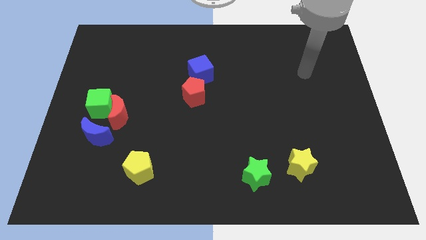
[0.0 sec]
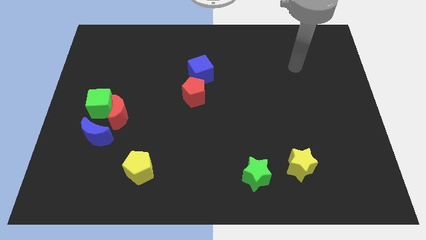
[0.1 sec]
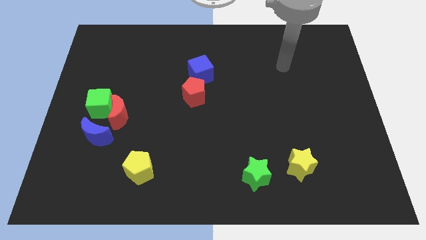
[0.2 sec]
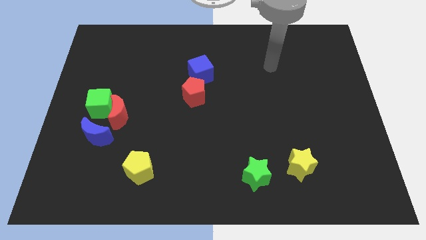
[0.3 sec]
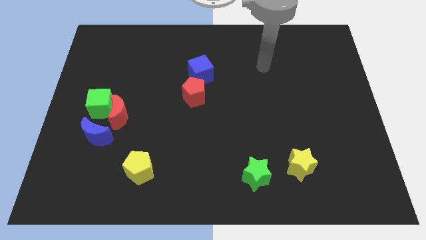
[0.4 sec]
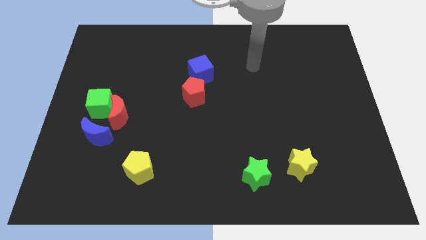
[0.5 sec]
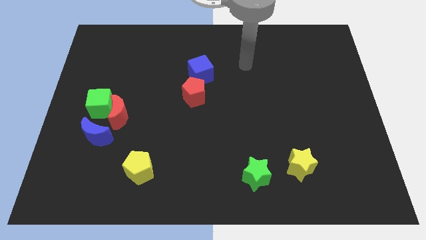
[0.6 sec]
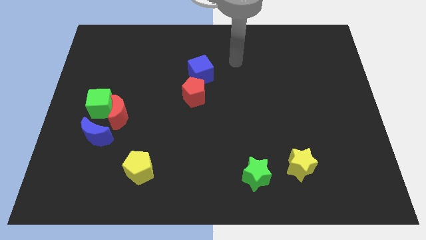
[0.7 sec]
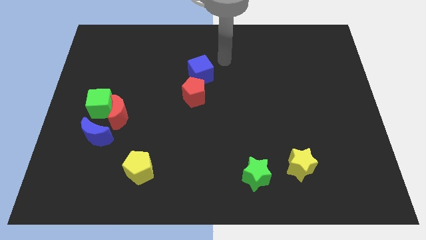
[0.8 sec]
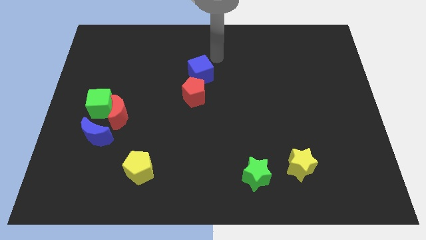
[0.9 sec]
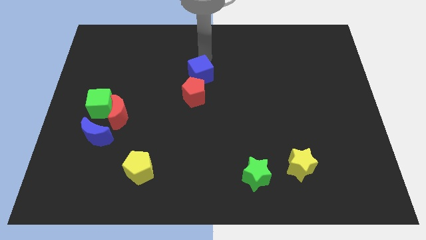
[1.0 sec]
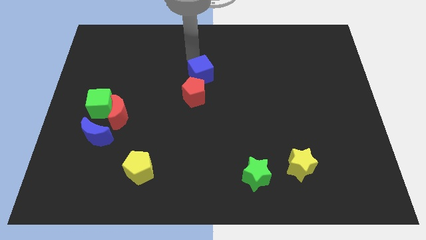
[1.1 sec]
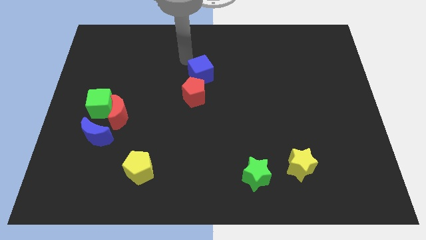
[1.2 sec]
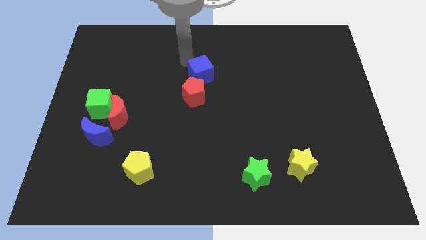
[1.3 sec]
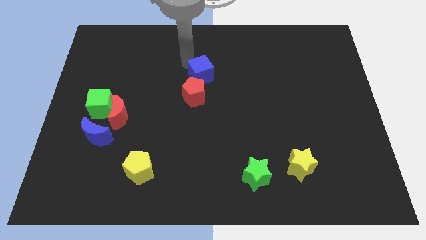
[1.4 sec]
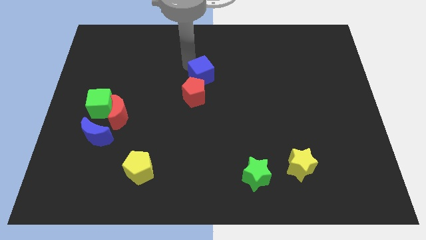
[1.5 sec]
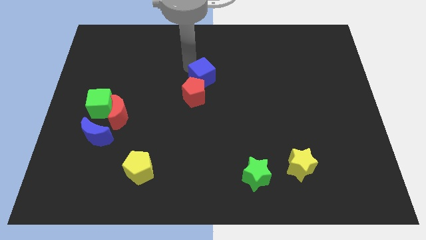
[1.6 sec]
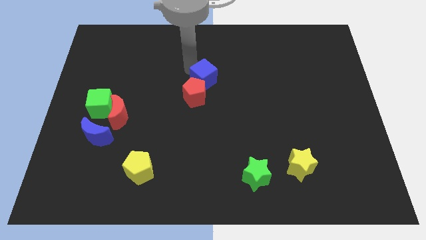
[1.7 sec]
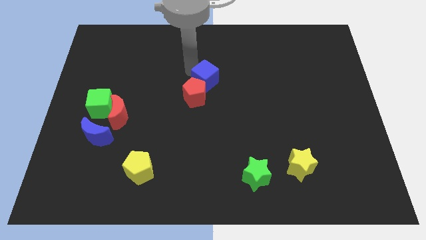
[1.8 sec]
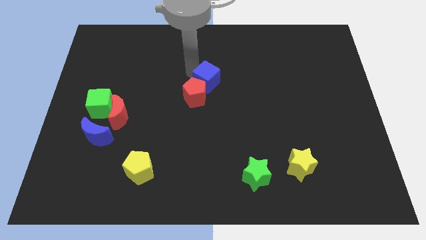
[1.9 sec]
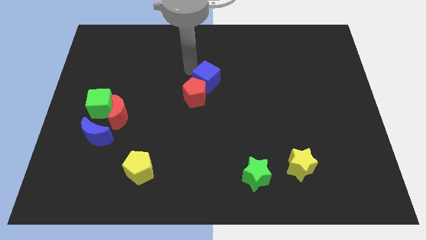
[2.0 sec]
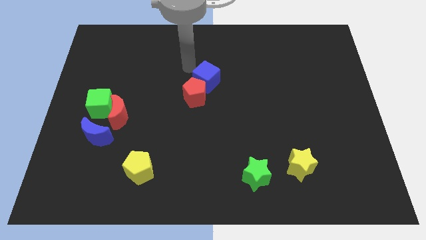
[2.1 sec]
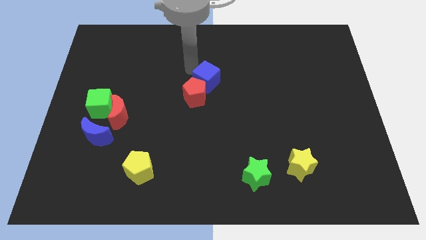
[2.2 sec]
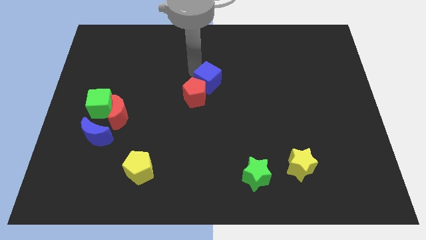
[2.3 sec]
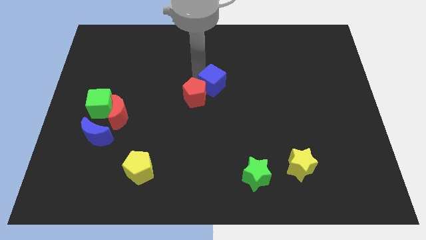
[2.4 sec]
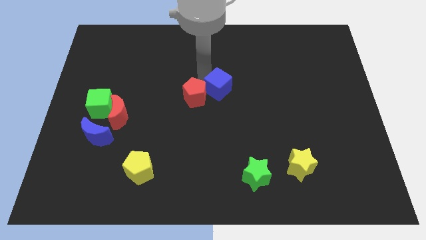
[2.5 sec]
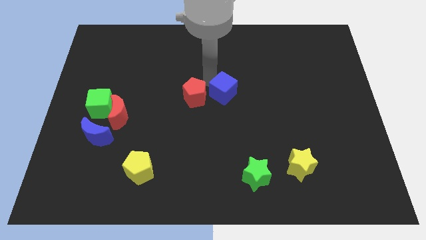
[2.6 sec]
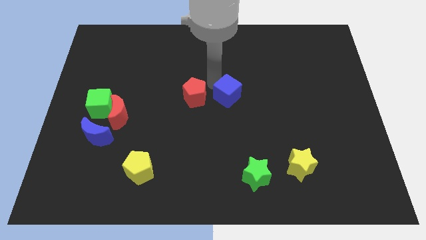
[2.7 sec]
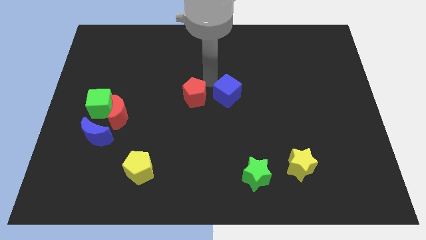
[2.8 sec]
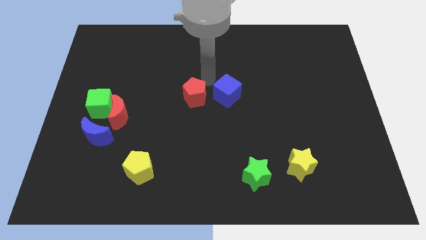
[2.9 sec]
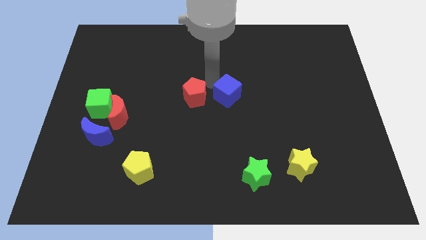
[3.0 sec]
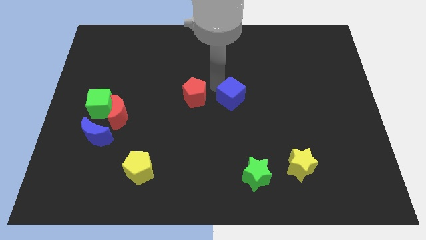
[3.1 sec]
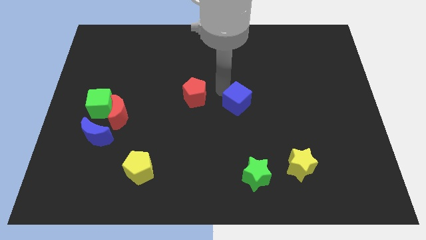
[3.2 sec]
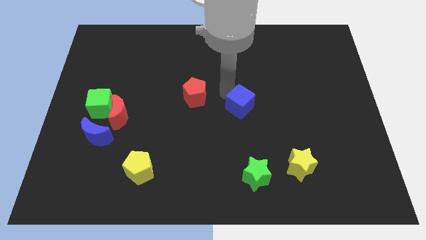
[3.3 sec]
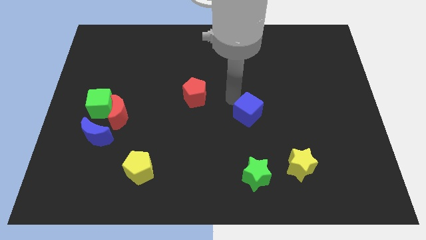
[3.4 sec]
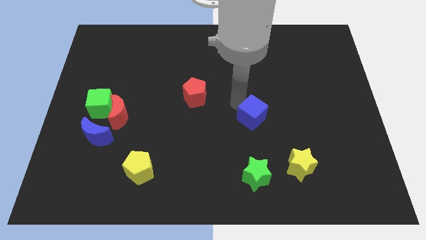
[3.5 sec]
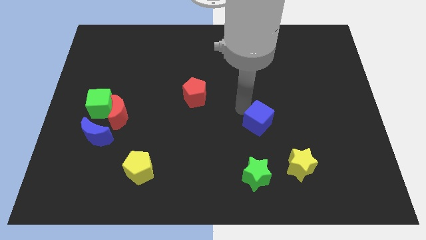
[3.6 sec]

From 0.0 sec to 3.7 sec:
push the blue cube down and to the right diagonally

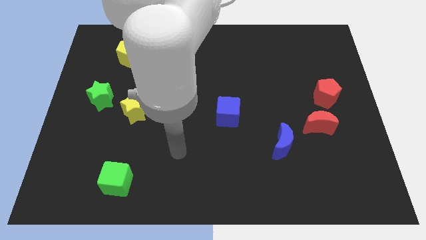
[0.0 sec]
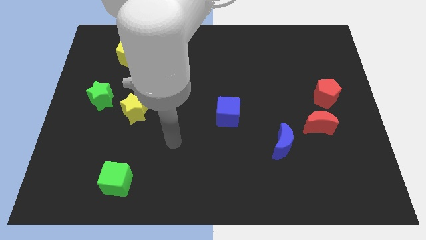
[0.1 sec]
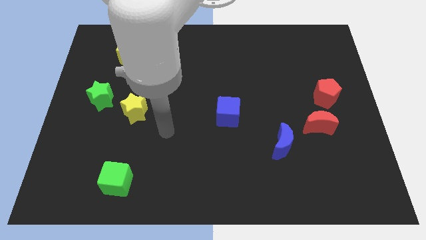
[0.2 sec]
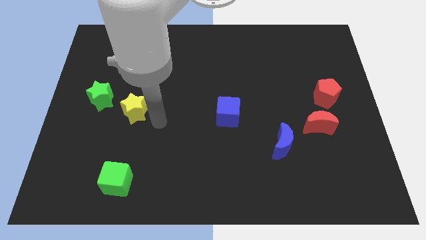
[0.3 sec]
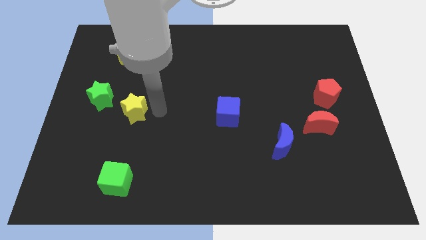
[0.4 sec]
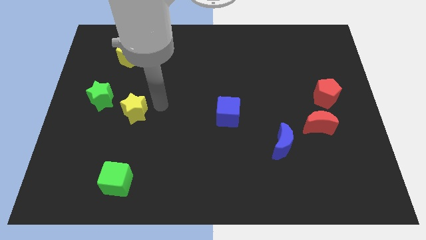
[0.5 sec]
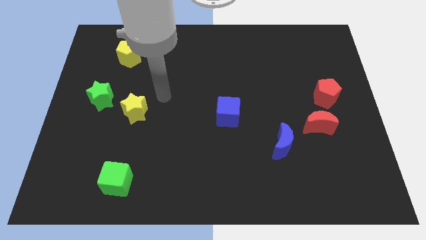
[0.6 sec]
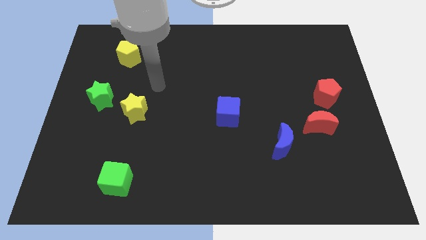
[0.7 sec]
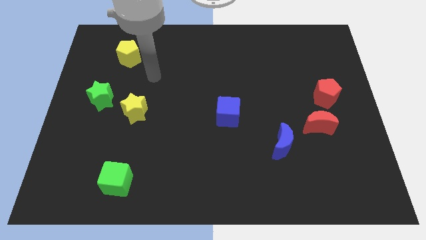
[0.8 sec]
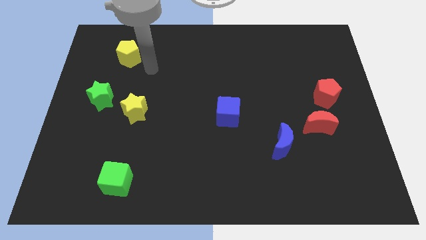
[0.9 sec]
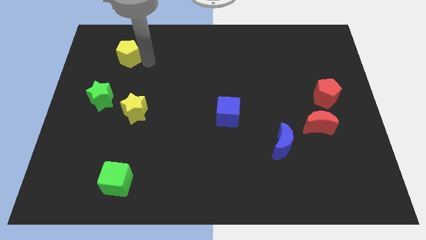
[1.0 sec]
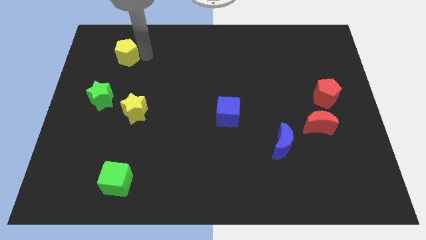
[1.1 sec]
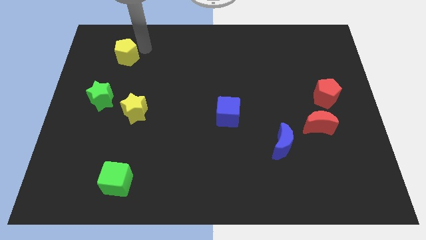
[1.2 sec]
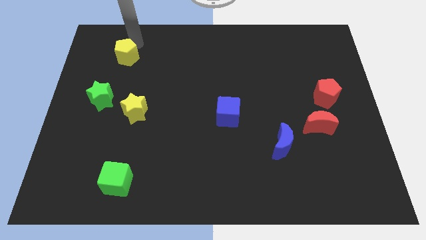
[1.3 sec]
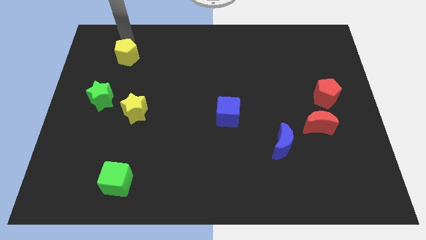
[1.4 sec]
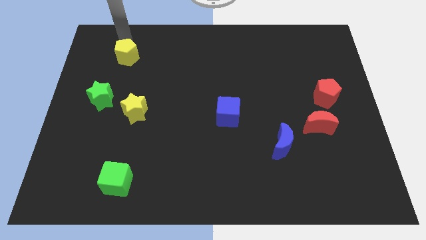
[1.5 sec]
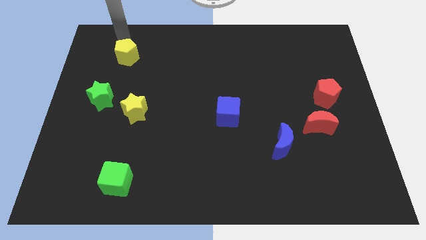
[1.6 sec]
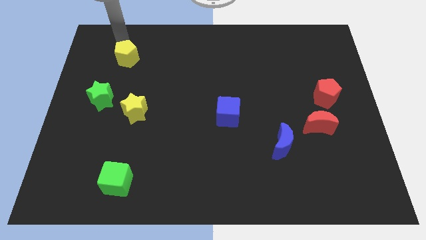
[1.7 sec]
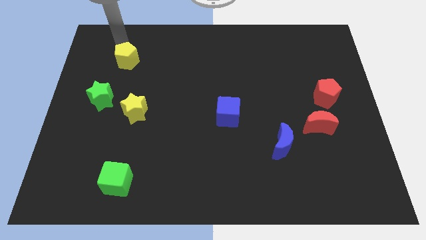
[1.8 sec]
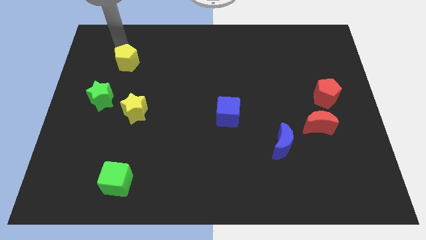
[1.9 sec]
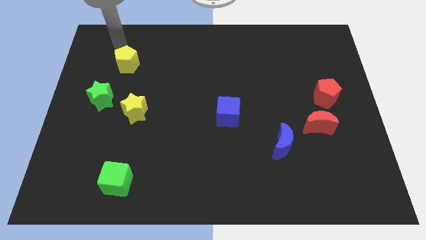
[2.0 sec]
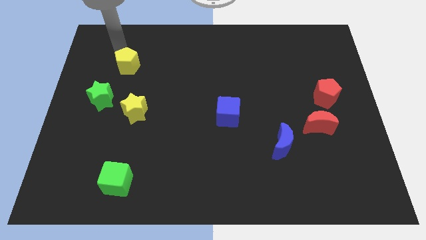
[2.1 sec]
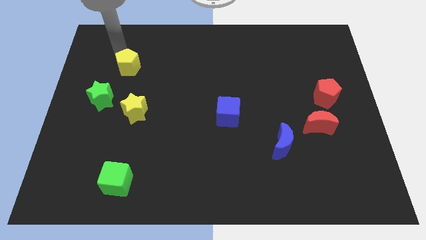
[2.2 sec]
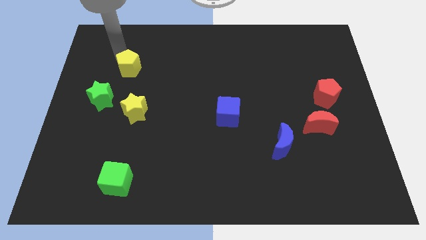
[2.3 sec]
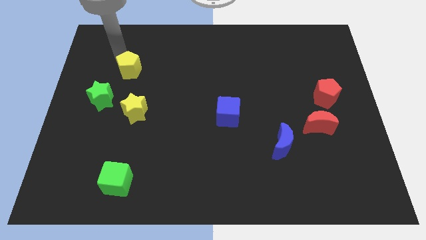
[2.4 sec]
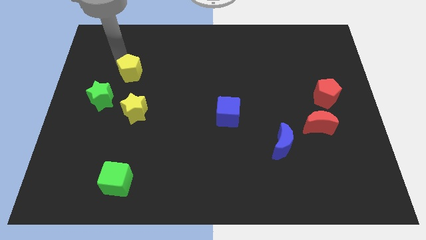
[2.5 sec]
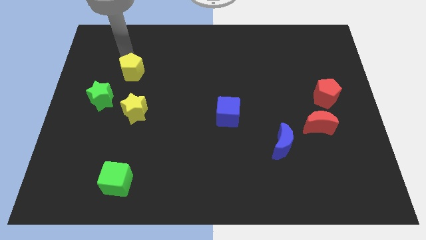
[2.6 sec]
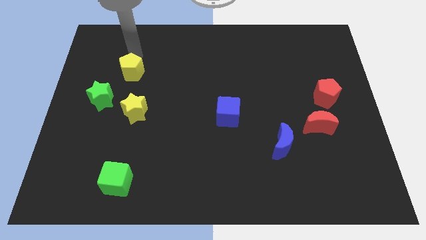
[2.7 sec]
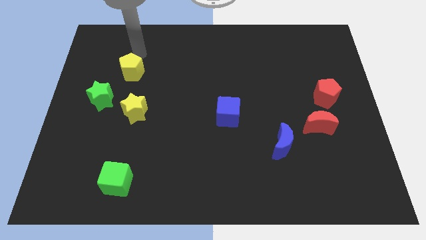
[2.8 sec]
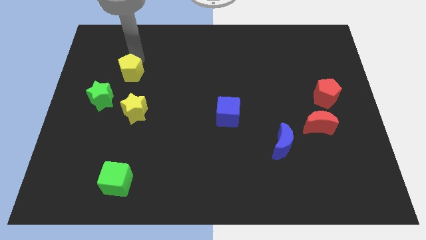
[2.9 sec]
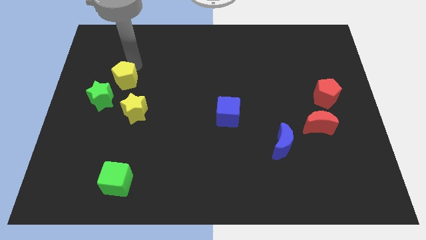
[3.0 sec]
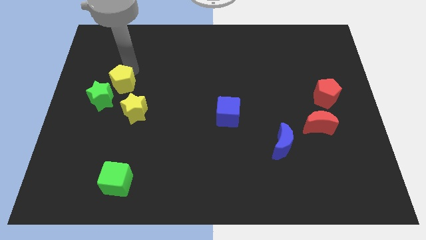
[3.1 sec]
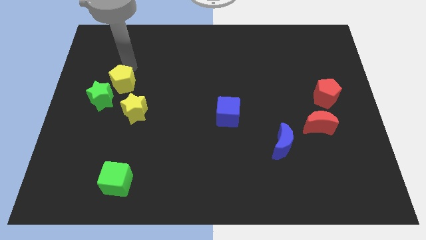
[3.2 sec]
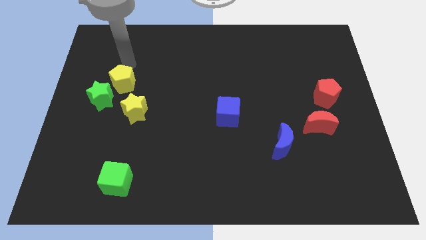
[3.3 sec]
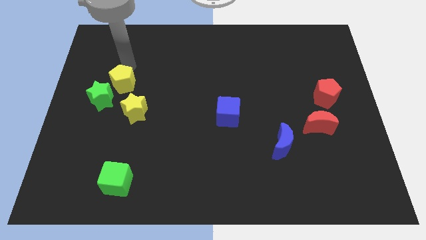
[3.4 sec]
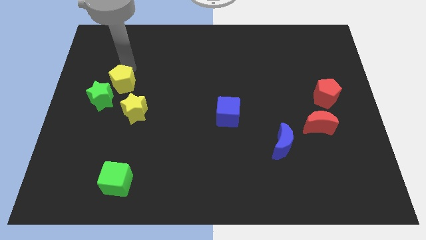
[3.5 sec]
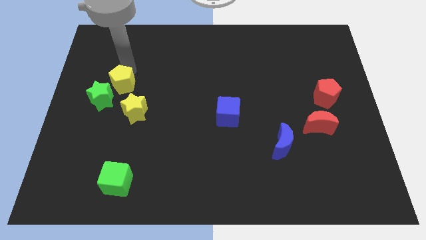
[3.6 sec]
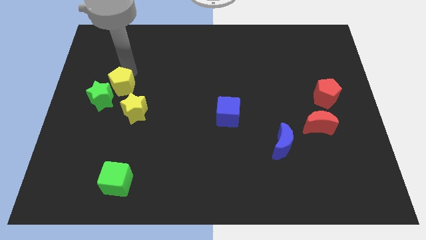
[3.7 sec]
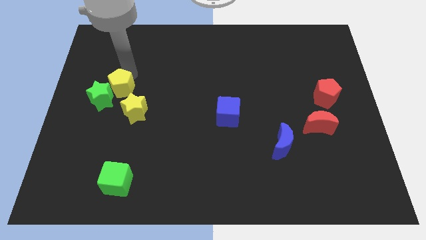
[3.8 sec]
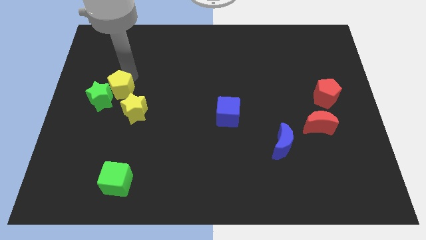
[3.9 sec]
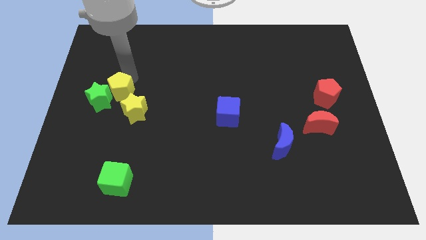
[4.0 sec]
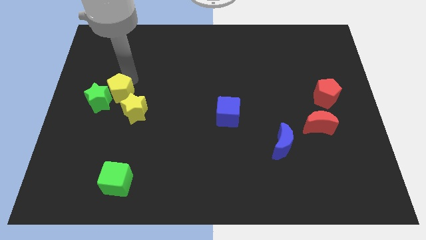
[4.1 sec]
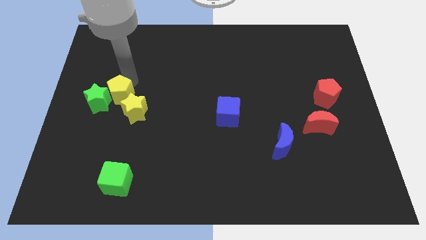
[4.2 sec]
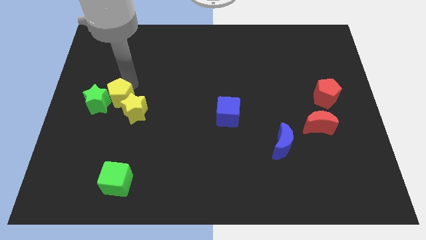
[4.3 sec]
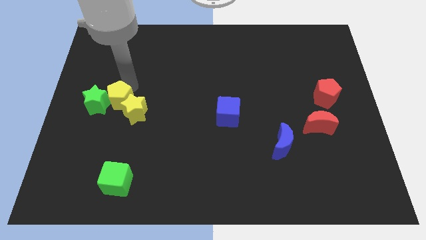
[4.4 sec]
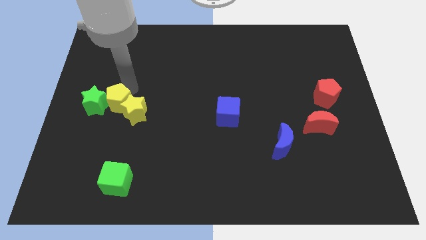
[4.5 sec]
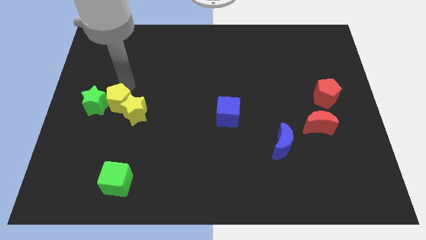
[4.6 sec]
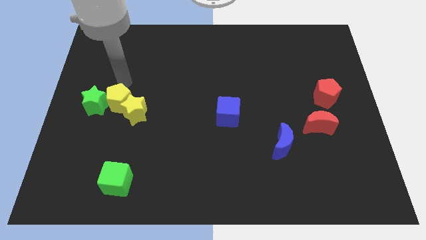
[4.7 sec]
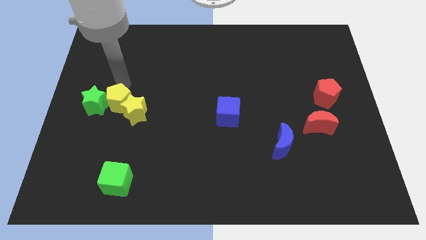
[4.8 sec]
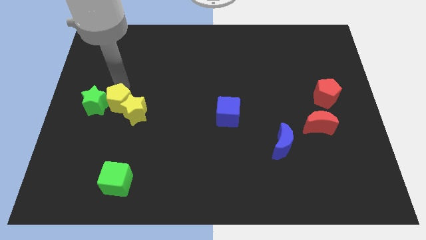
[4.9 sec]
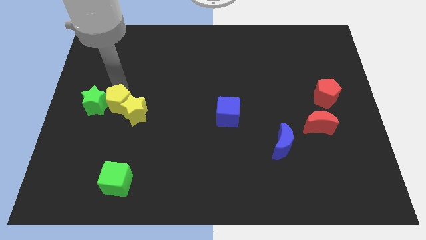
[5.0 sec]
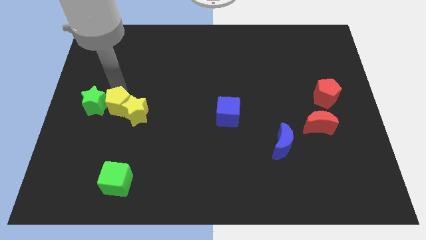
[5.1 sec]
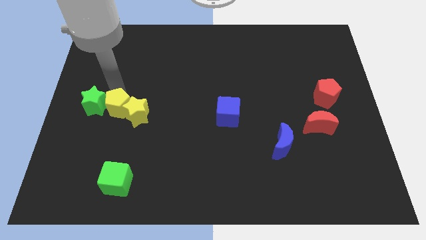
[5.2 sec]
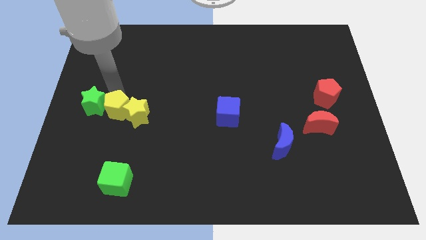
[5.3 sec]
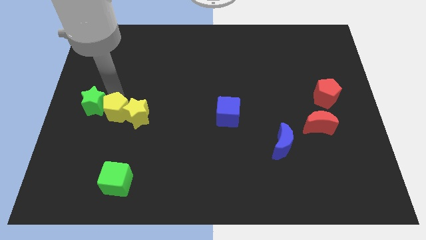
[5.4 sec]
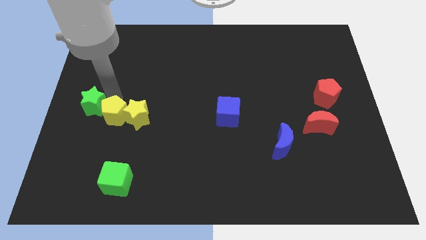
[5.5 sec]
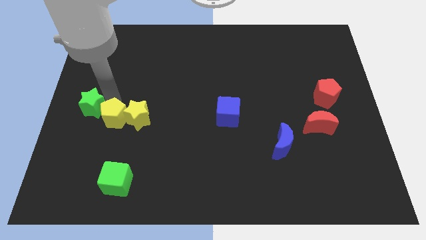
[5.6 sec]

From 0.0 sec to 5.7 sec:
push the yellow pentagon down
